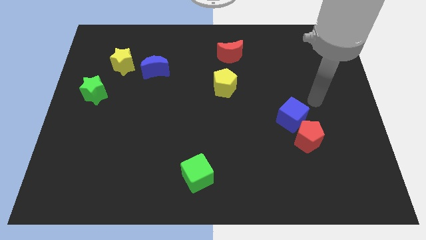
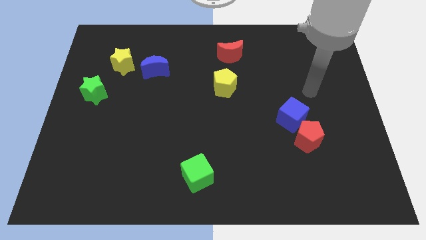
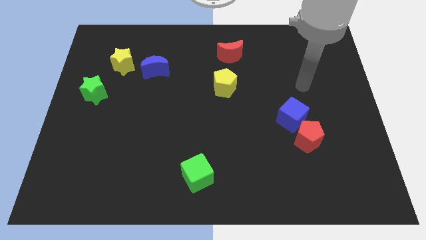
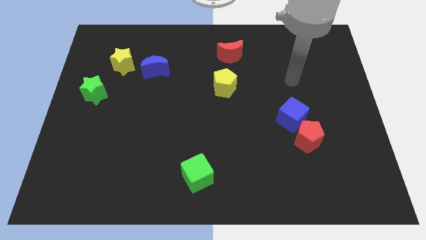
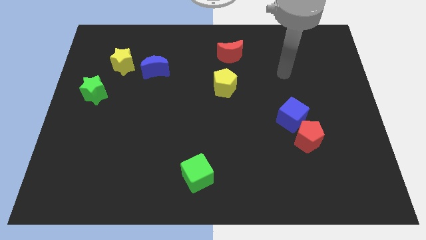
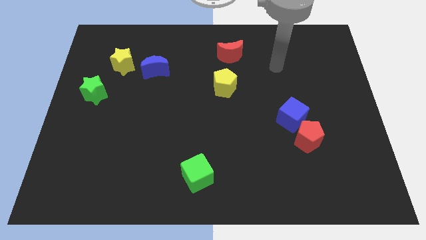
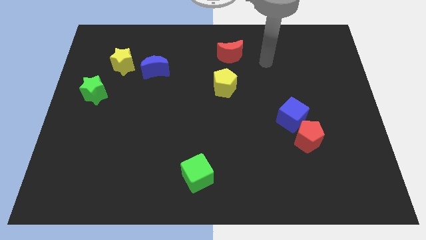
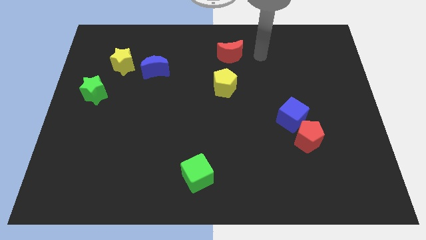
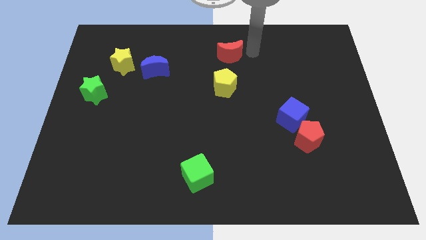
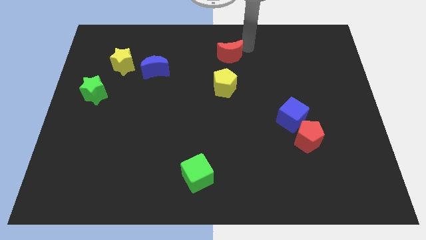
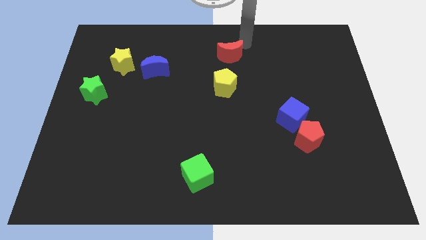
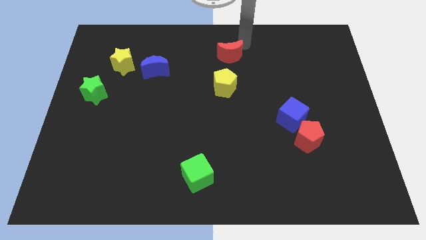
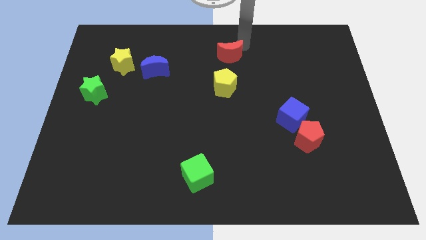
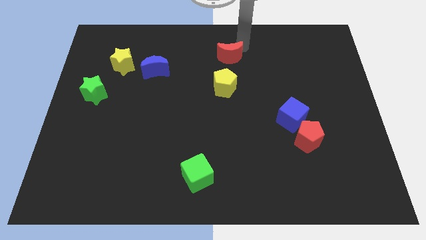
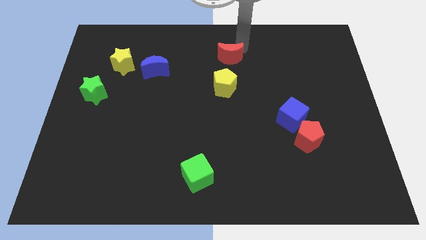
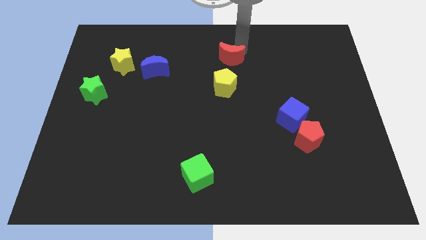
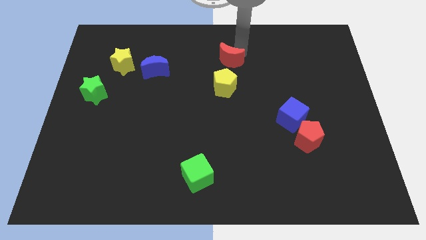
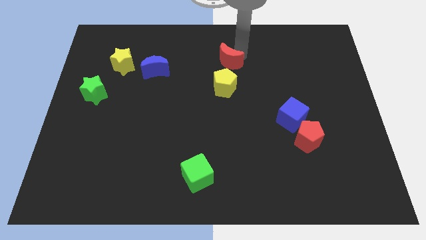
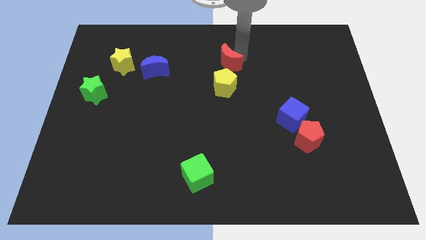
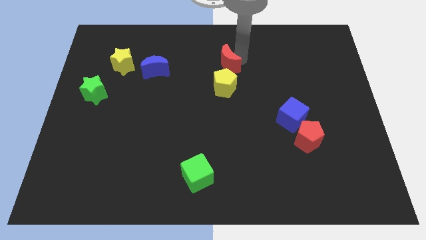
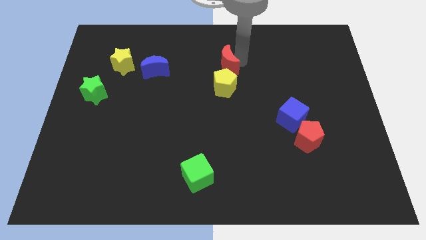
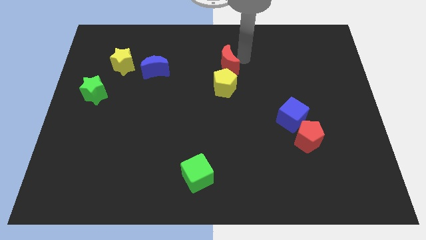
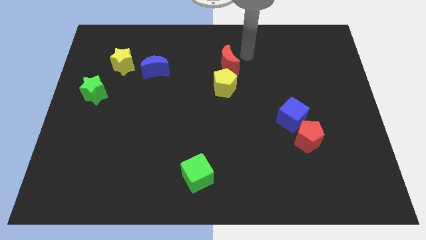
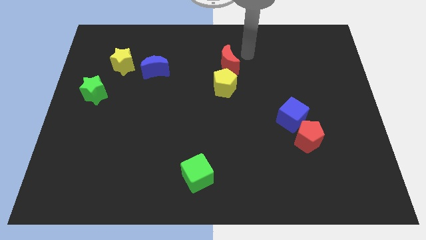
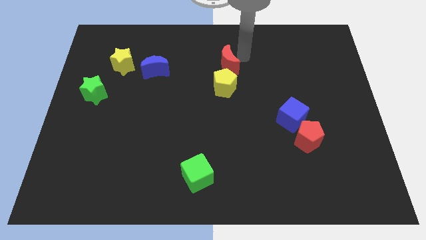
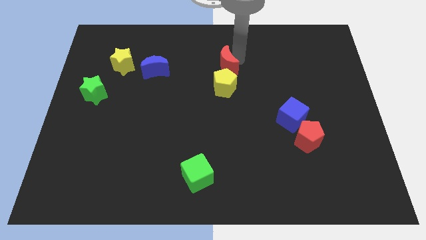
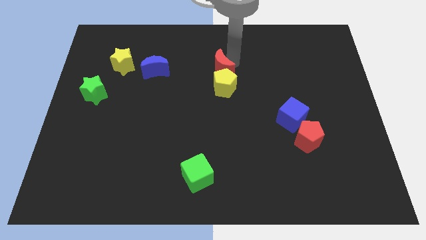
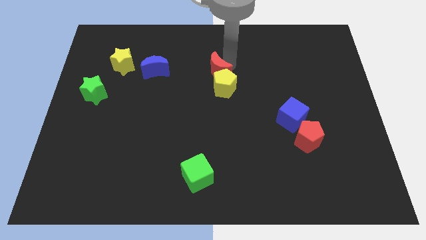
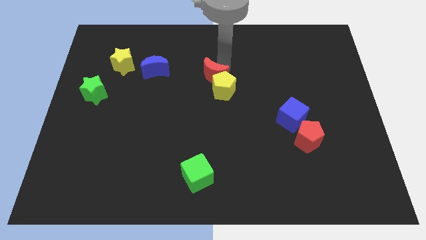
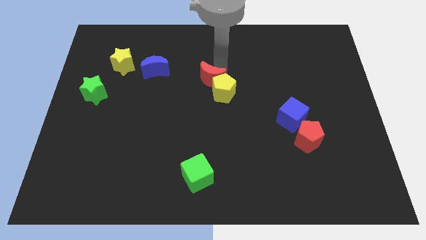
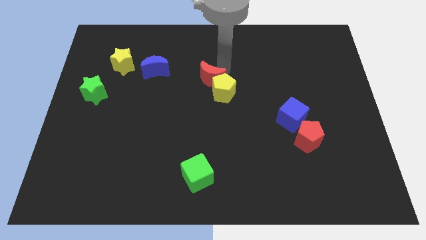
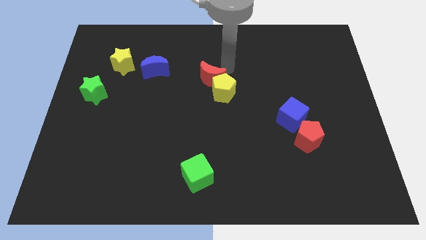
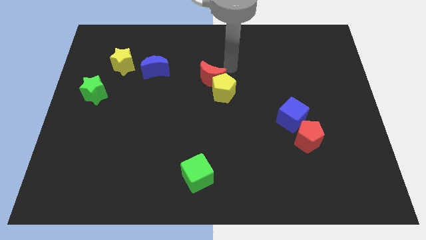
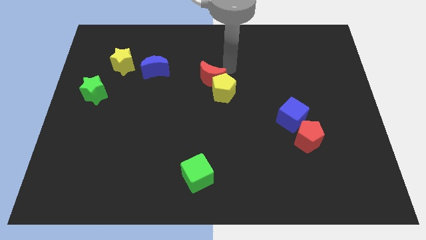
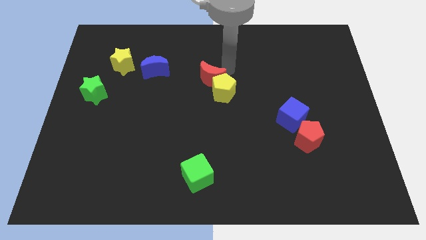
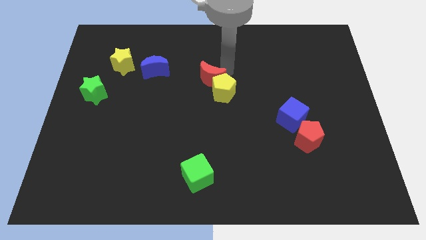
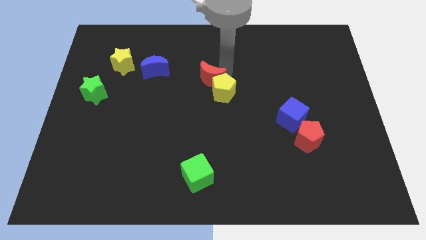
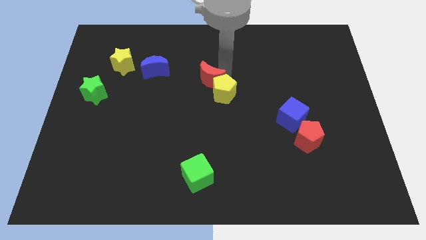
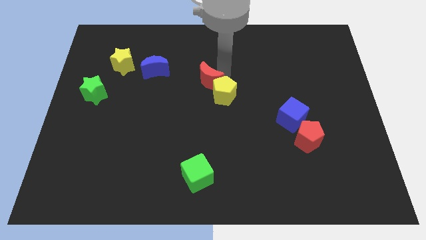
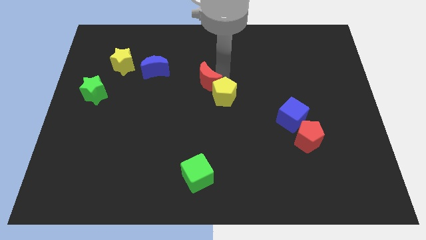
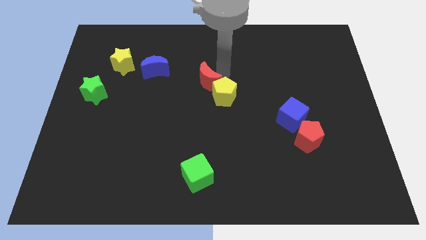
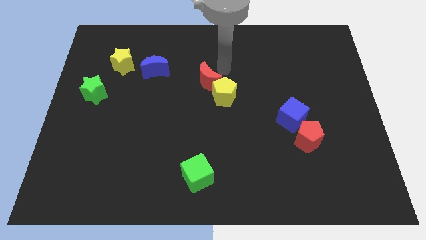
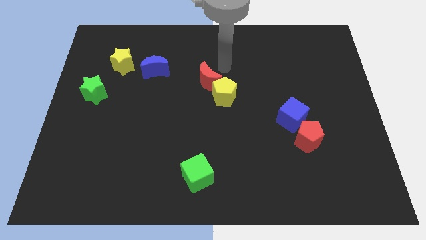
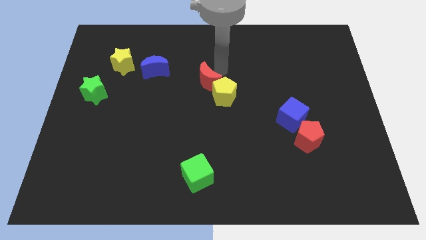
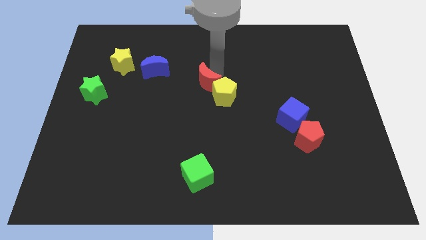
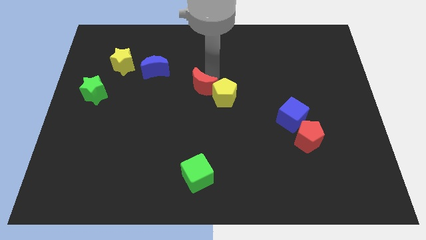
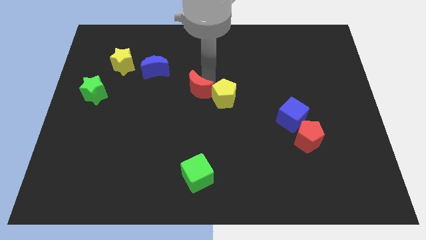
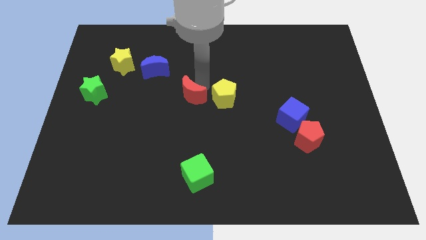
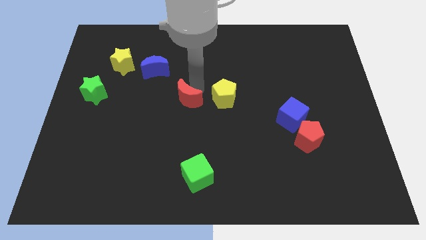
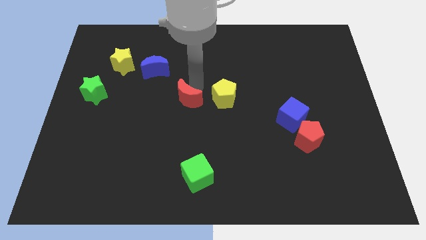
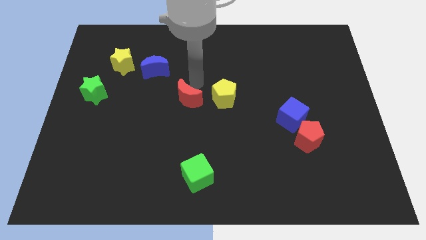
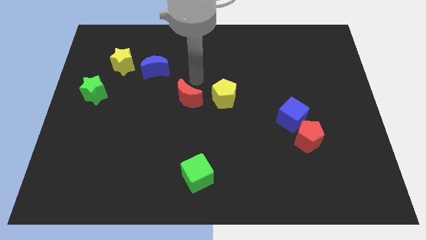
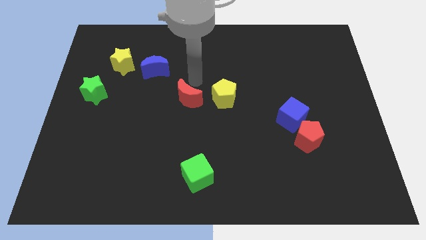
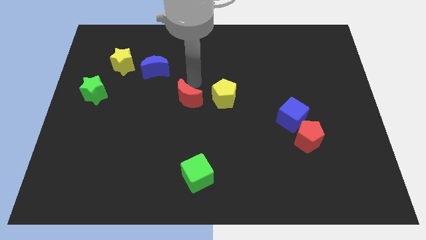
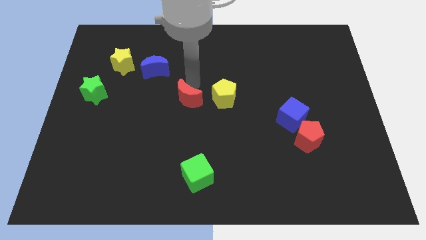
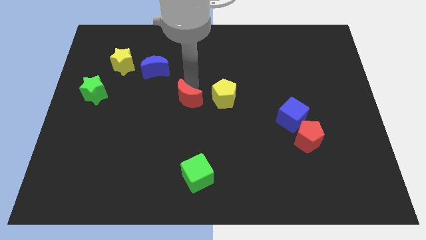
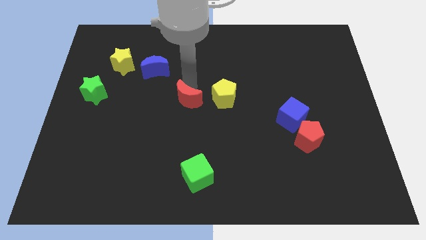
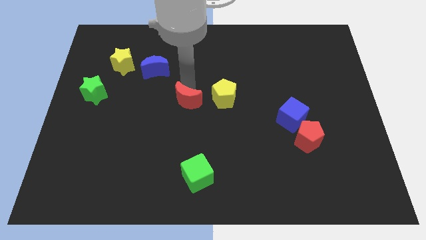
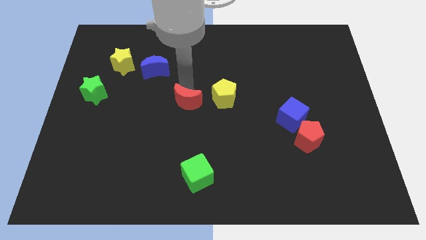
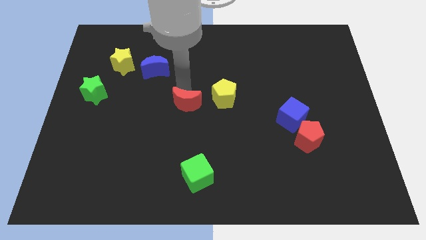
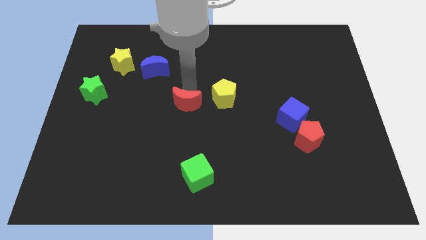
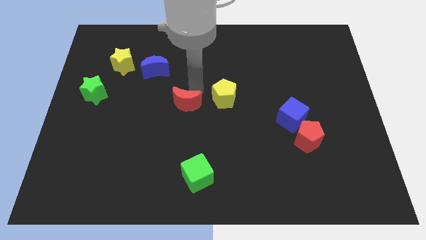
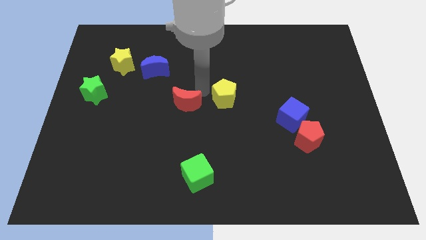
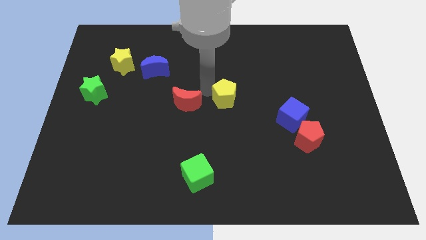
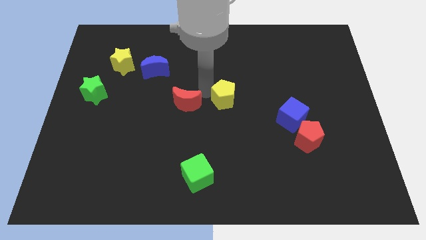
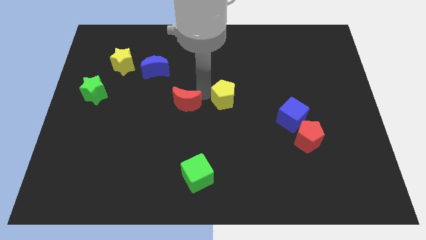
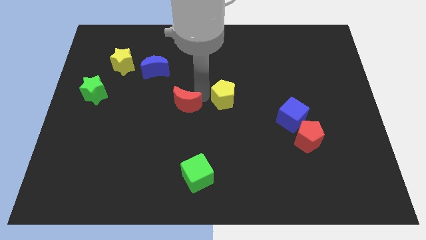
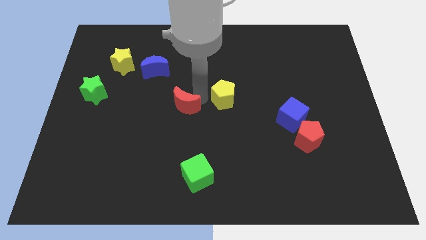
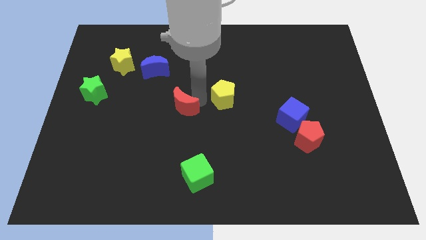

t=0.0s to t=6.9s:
push the red moon diagonally down and to the left

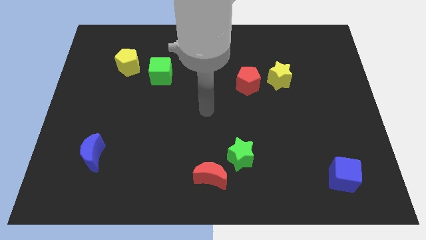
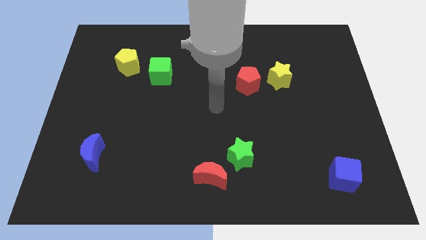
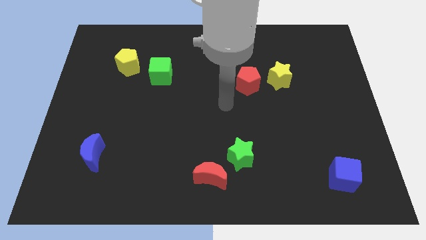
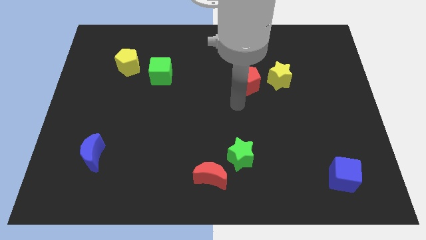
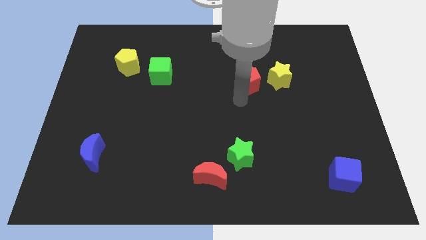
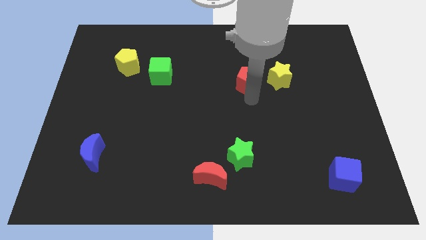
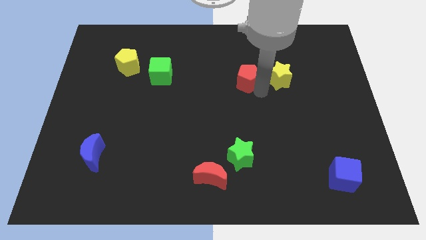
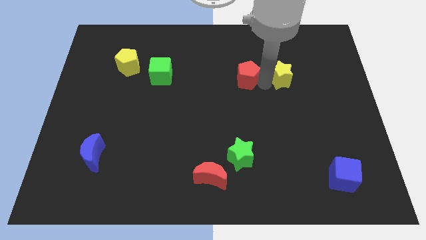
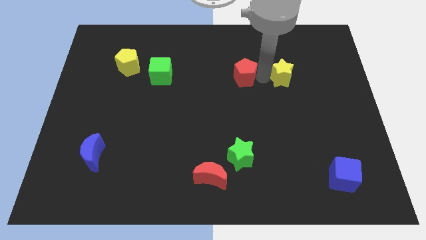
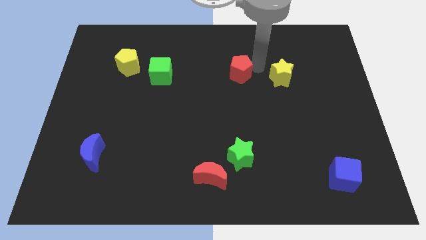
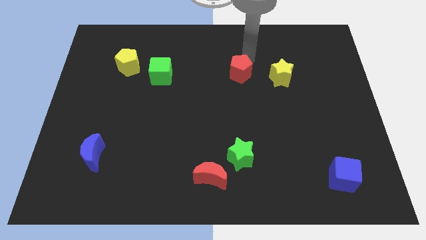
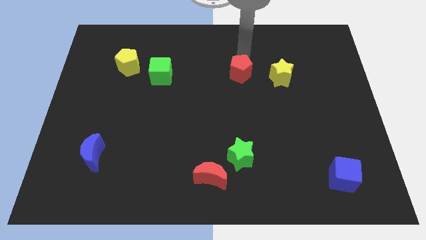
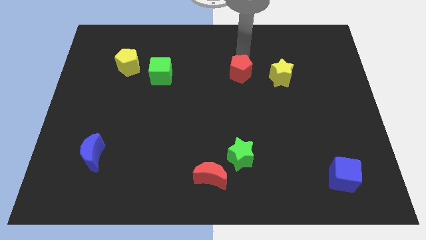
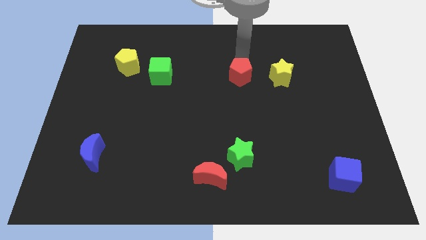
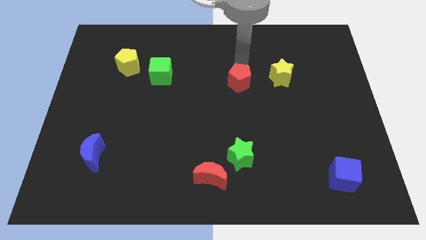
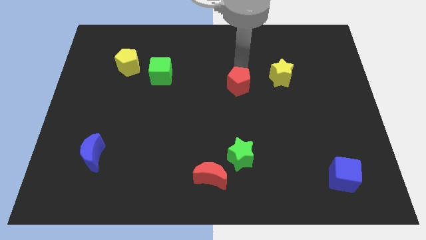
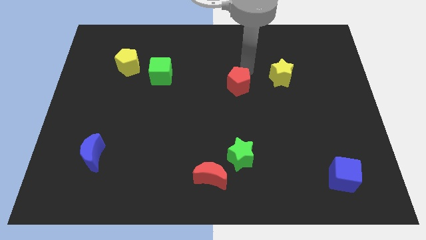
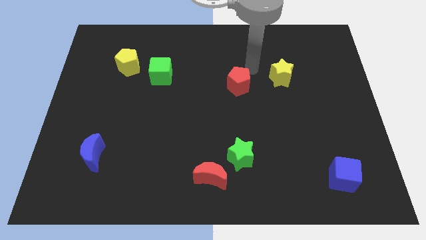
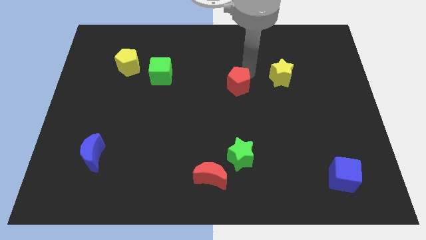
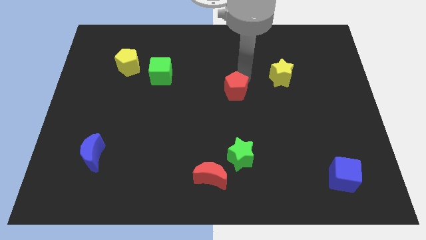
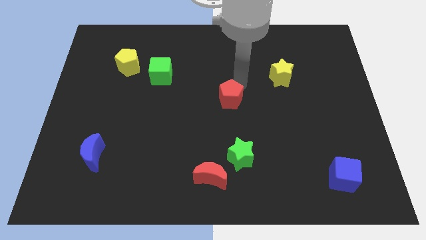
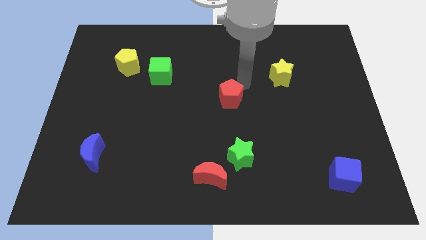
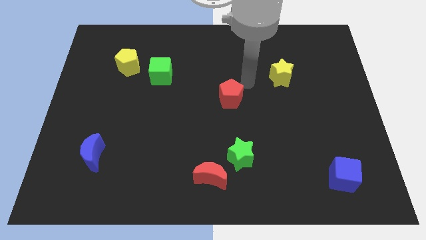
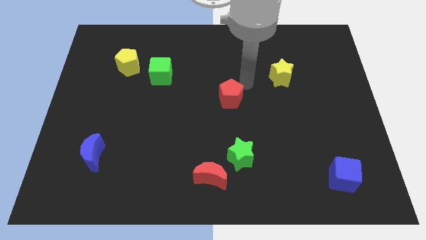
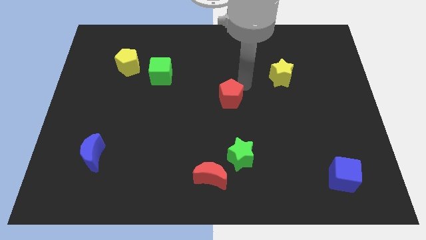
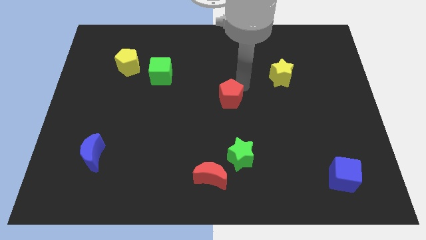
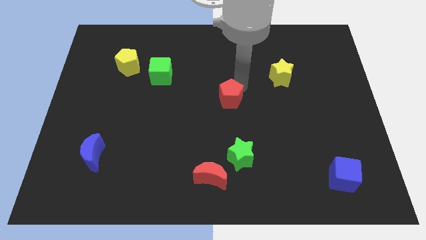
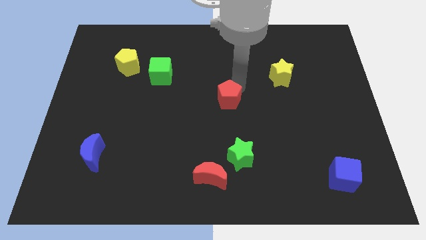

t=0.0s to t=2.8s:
slide the red pentagon downwards and then to the left a bit
